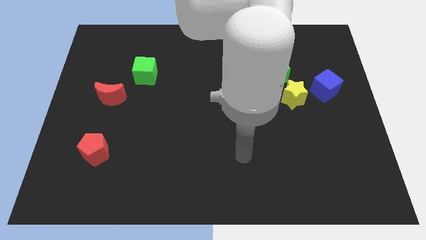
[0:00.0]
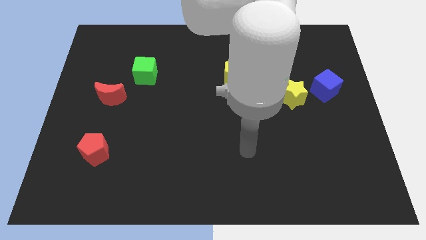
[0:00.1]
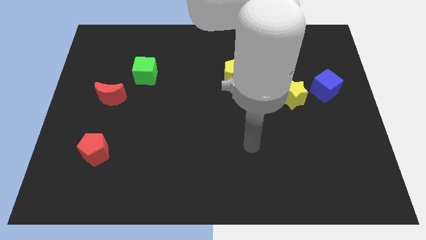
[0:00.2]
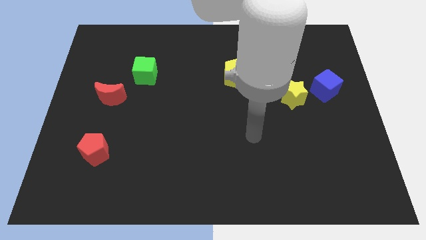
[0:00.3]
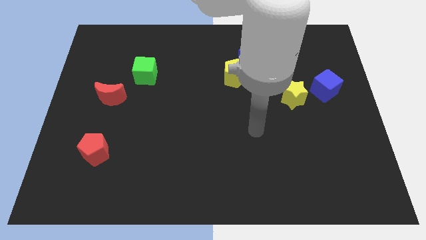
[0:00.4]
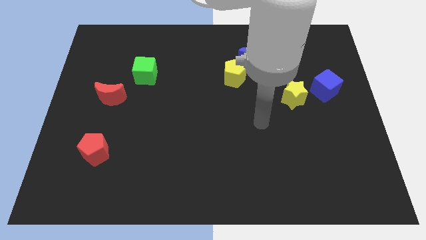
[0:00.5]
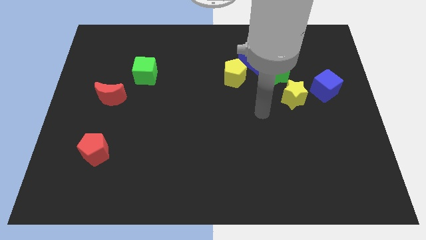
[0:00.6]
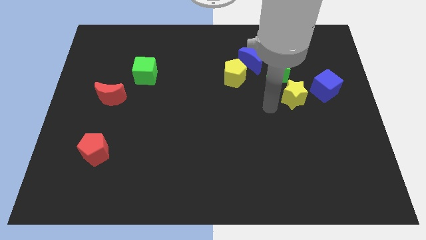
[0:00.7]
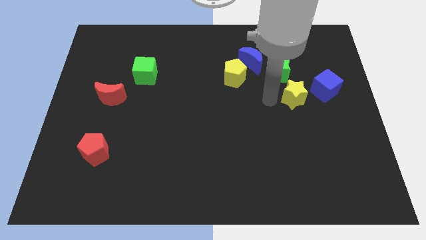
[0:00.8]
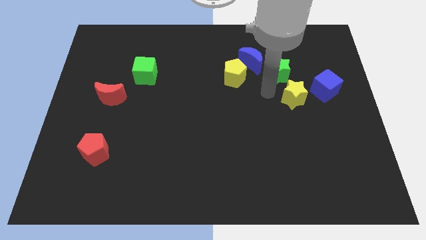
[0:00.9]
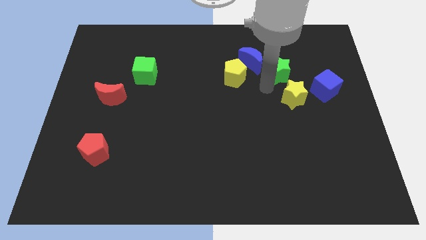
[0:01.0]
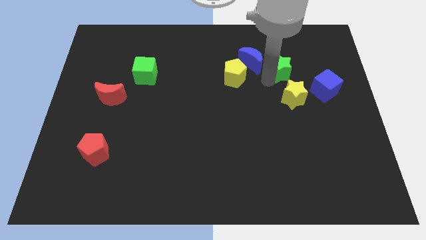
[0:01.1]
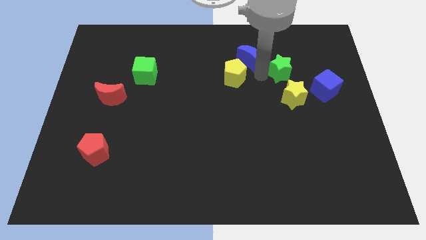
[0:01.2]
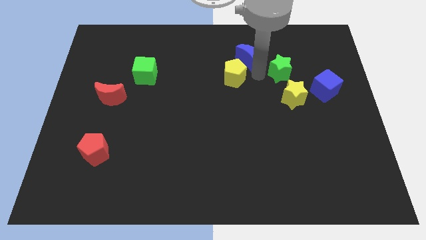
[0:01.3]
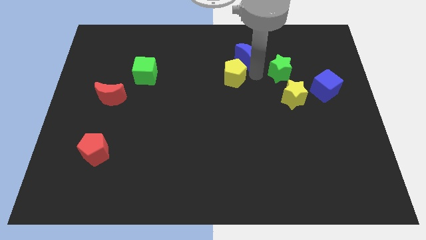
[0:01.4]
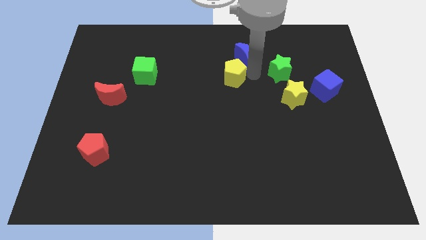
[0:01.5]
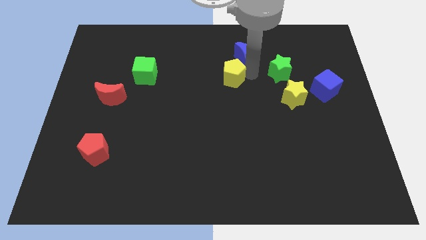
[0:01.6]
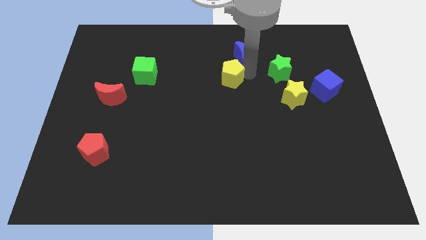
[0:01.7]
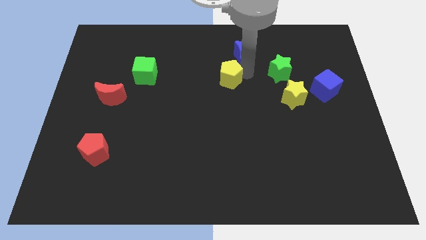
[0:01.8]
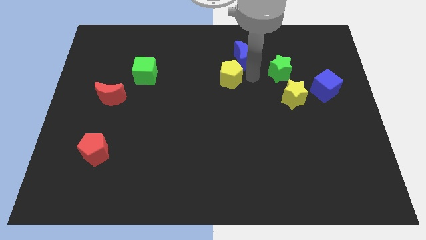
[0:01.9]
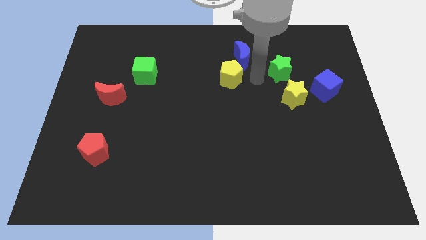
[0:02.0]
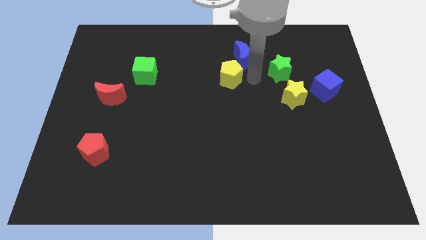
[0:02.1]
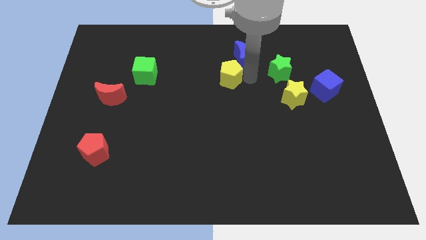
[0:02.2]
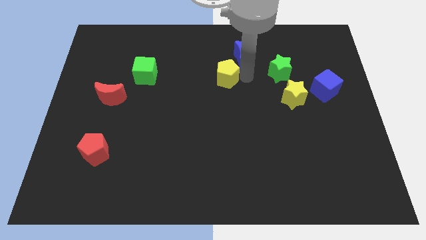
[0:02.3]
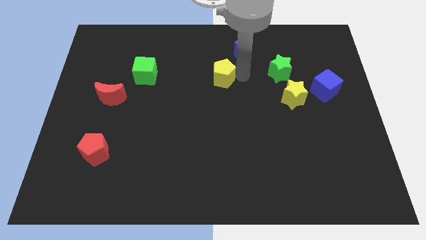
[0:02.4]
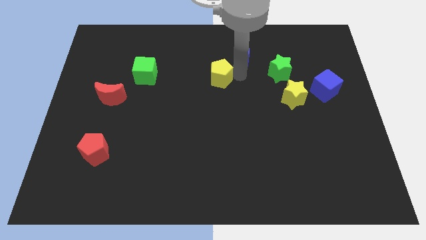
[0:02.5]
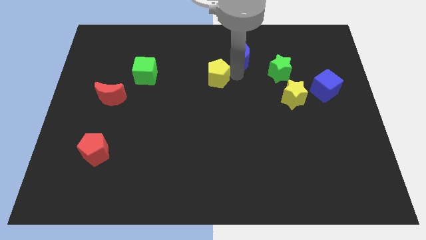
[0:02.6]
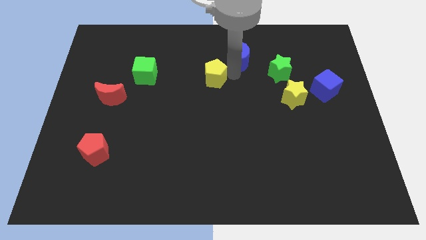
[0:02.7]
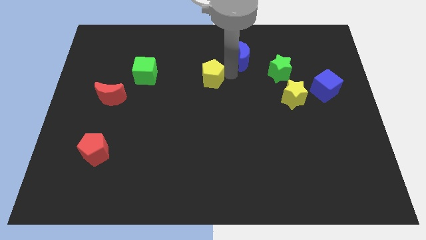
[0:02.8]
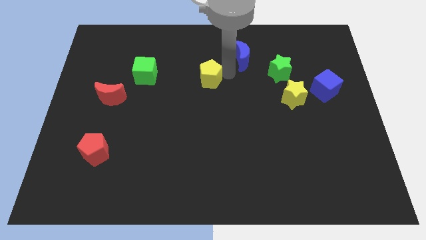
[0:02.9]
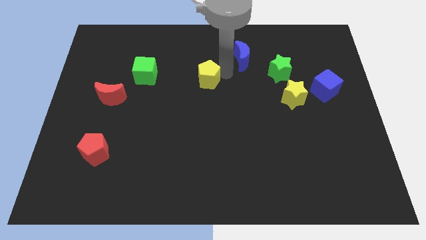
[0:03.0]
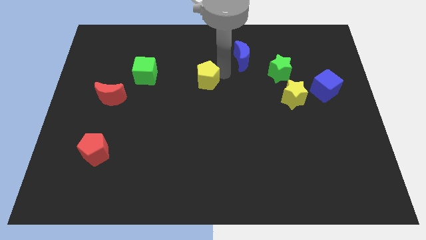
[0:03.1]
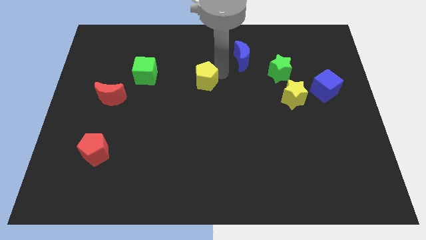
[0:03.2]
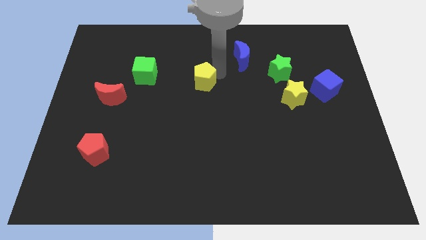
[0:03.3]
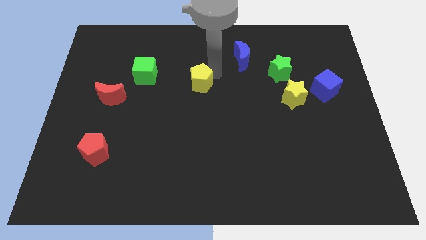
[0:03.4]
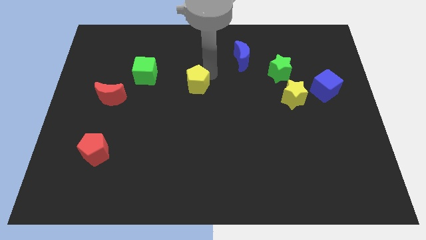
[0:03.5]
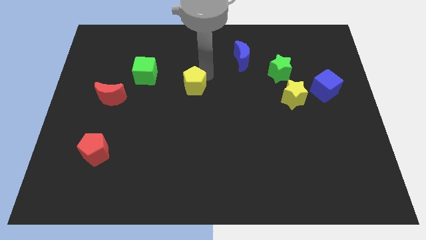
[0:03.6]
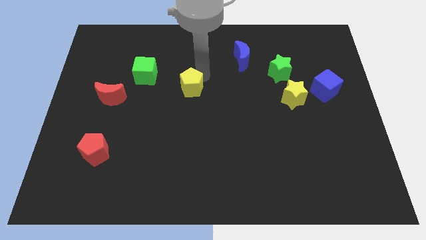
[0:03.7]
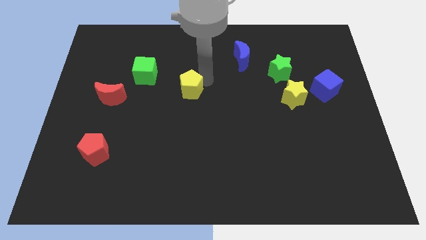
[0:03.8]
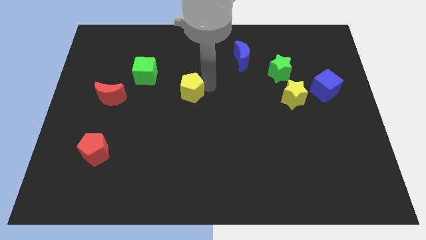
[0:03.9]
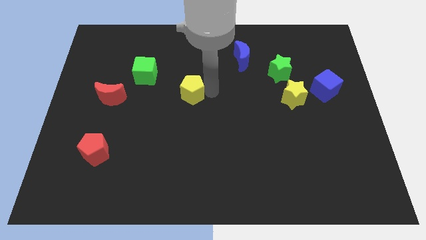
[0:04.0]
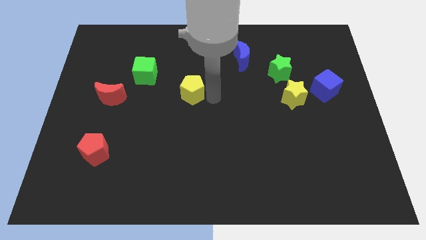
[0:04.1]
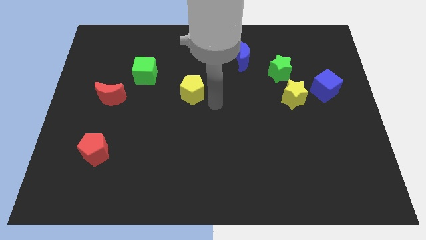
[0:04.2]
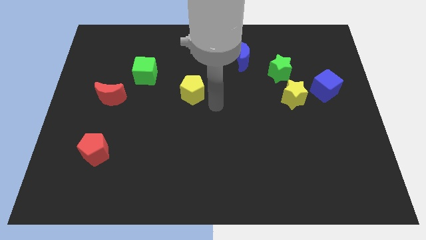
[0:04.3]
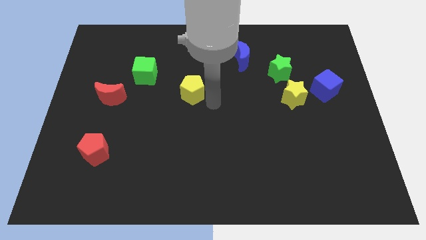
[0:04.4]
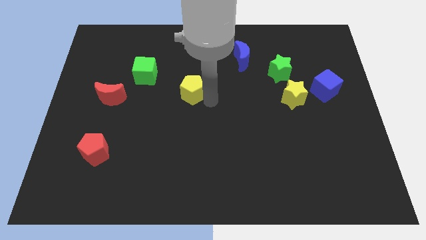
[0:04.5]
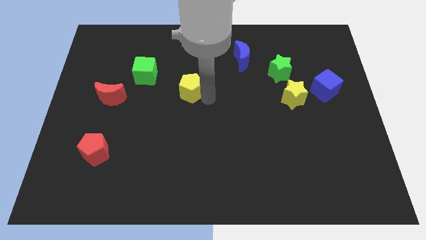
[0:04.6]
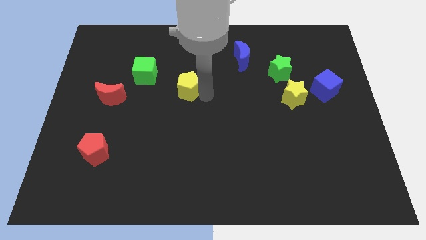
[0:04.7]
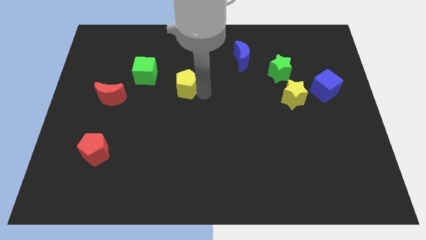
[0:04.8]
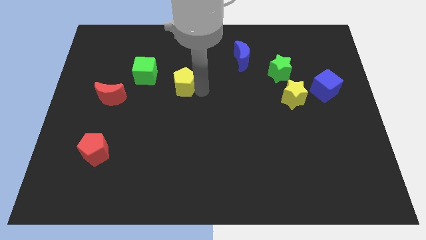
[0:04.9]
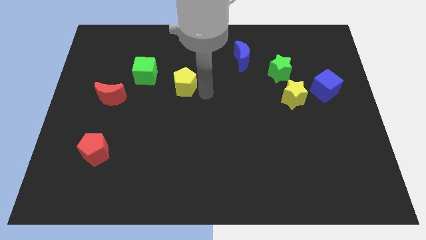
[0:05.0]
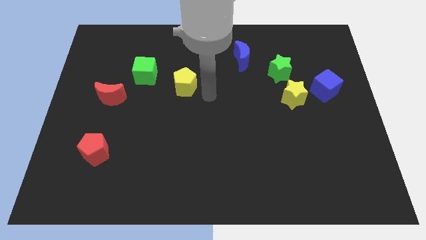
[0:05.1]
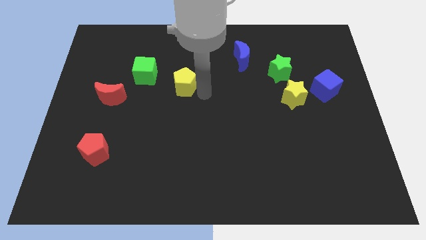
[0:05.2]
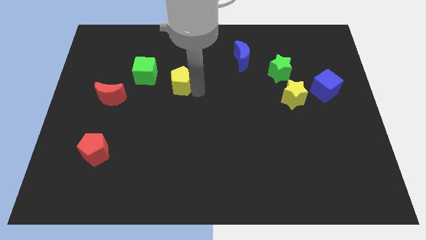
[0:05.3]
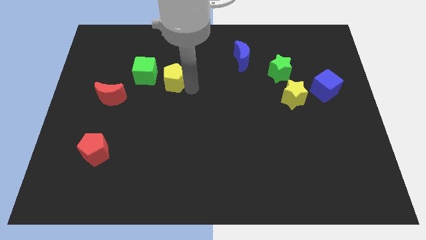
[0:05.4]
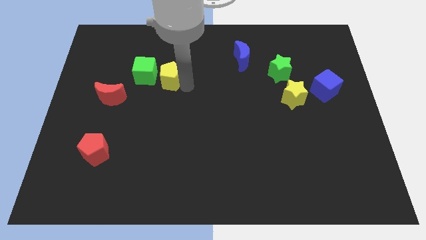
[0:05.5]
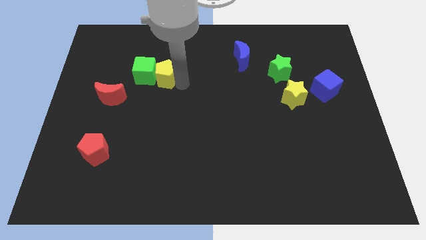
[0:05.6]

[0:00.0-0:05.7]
move the yellow pentagon to the green cube

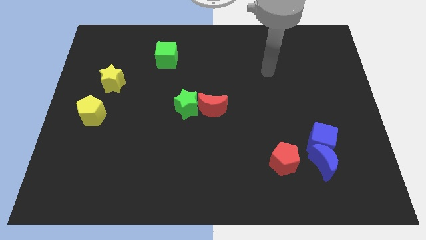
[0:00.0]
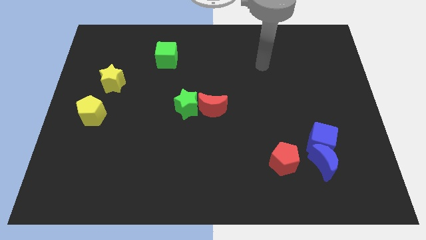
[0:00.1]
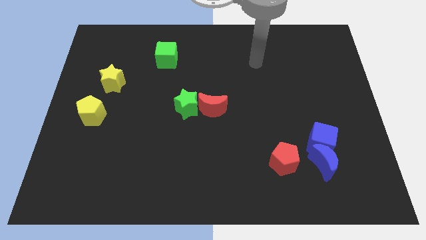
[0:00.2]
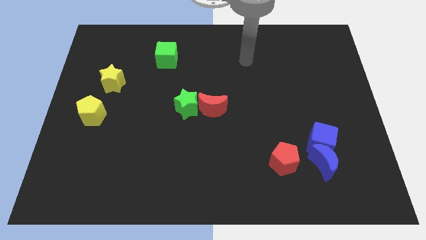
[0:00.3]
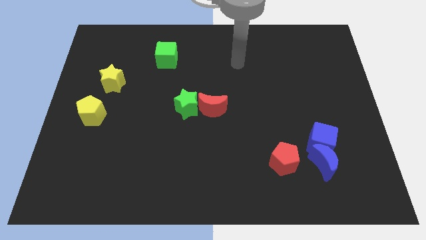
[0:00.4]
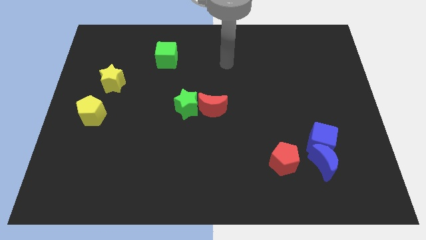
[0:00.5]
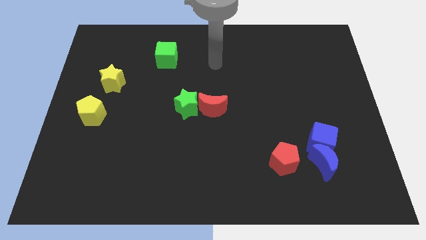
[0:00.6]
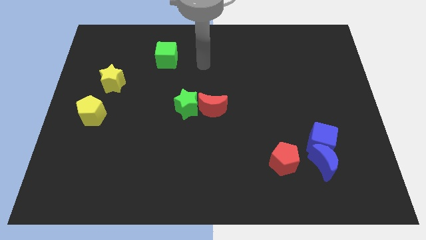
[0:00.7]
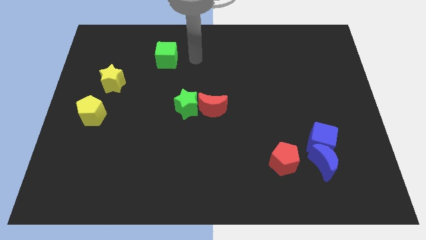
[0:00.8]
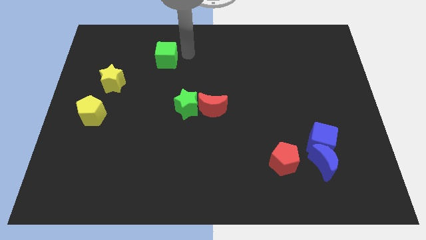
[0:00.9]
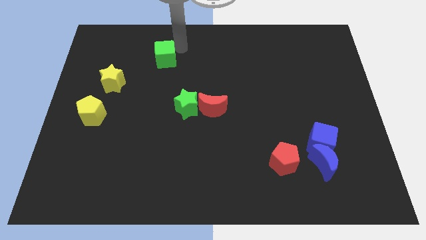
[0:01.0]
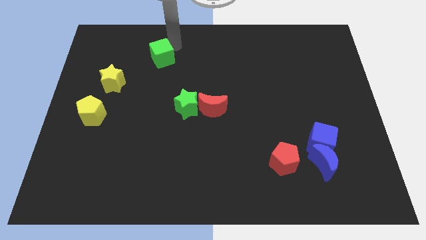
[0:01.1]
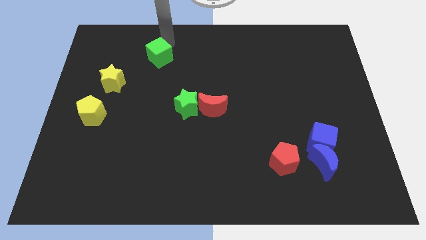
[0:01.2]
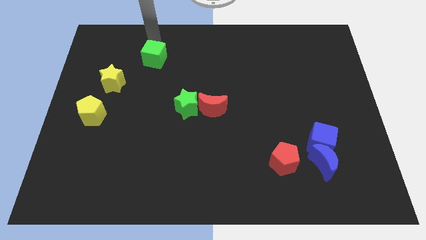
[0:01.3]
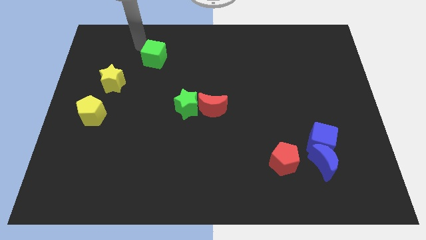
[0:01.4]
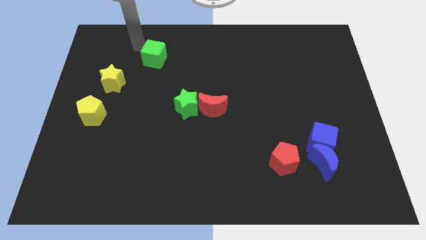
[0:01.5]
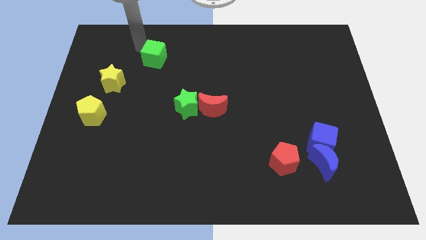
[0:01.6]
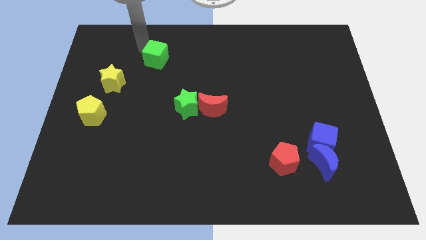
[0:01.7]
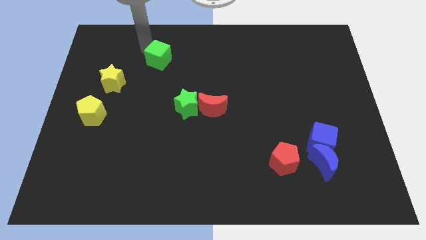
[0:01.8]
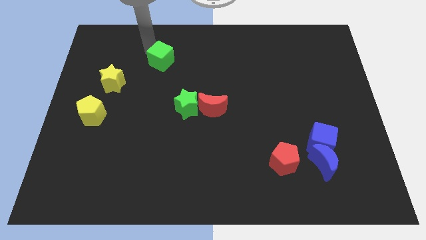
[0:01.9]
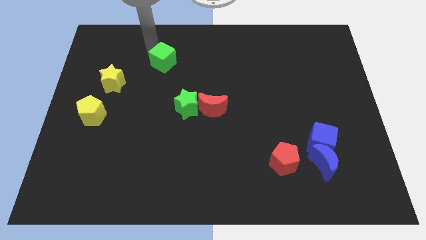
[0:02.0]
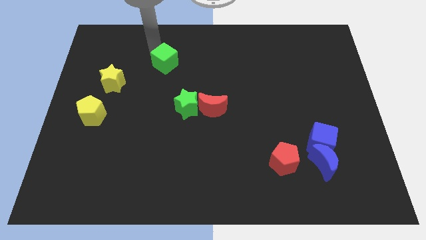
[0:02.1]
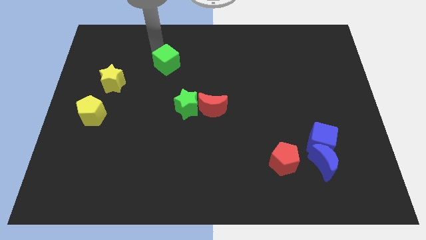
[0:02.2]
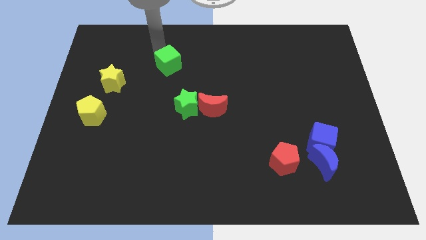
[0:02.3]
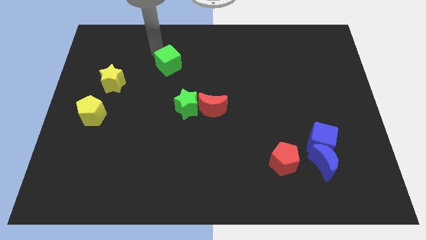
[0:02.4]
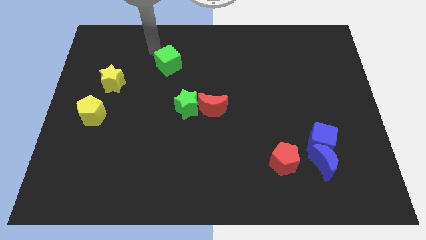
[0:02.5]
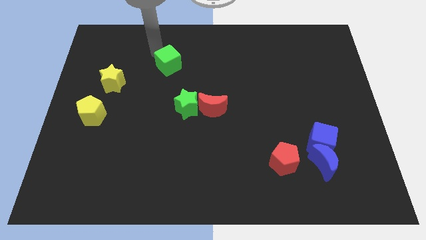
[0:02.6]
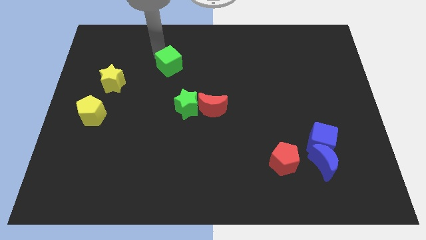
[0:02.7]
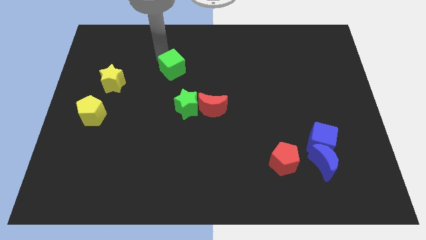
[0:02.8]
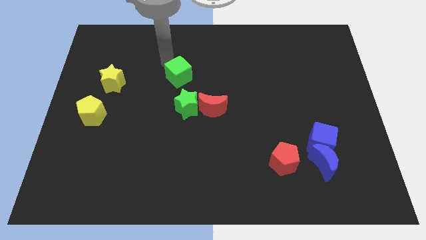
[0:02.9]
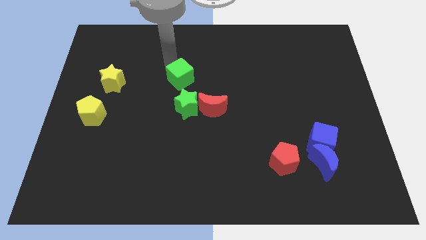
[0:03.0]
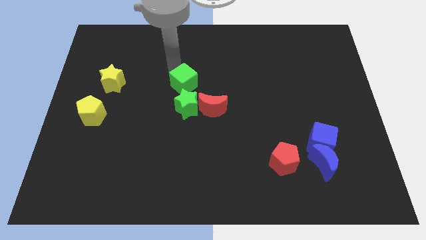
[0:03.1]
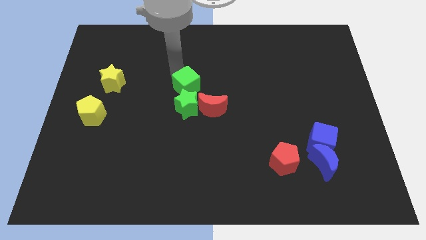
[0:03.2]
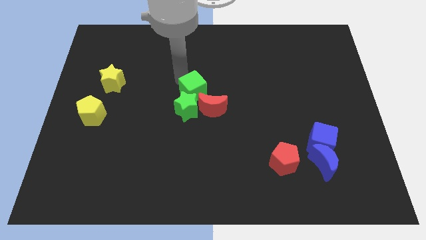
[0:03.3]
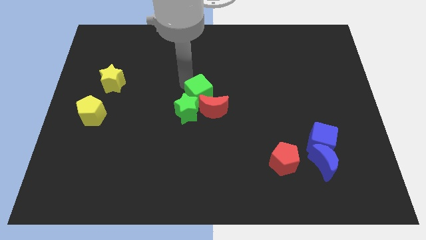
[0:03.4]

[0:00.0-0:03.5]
move the green cube next to the red moon
